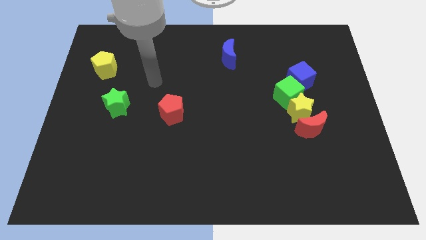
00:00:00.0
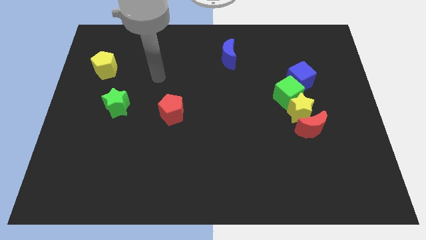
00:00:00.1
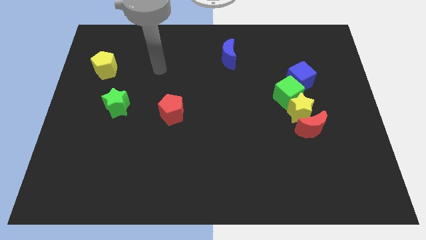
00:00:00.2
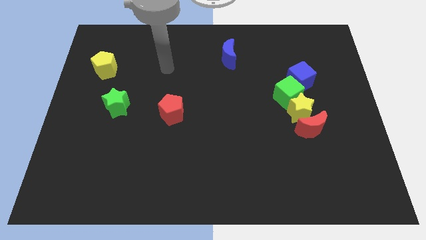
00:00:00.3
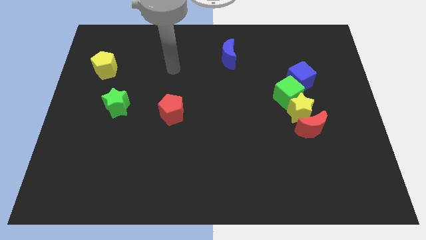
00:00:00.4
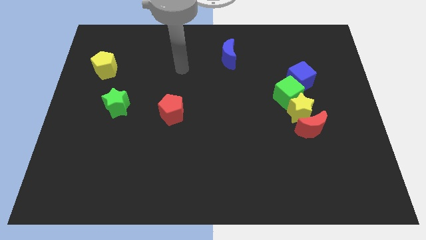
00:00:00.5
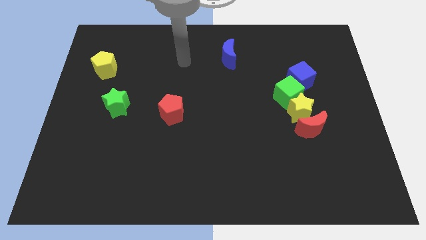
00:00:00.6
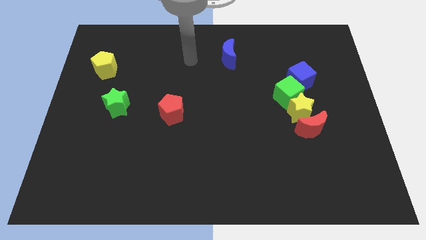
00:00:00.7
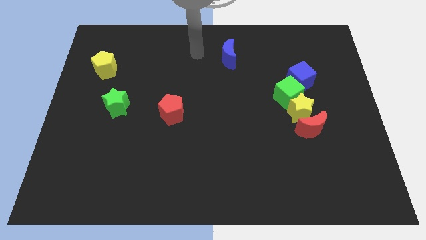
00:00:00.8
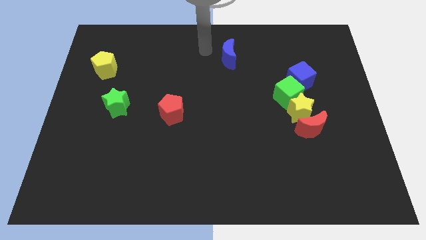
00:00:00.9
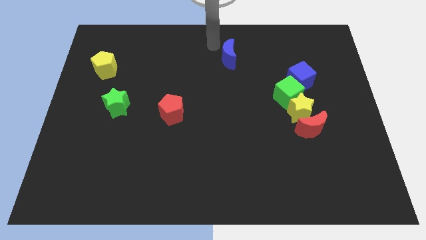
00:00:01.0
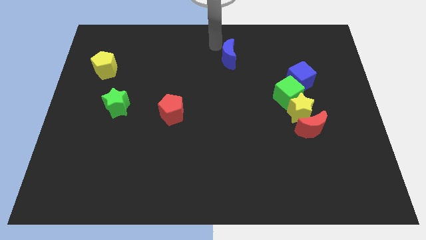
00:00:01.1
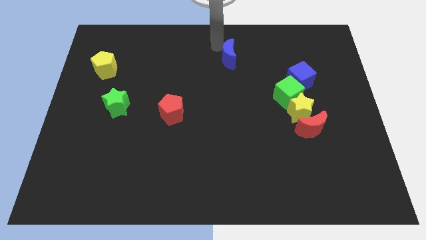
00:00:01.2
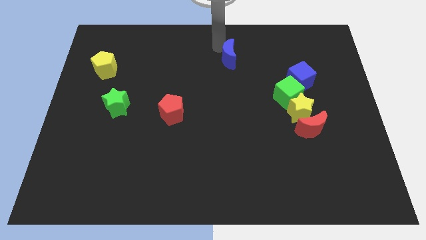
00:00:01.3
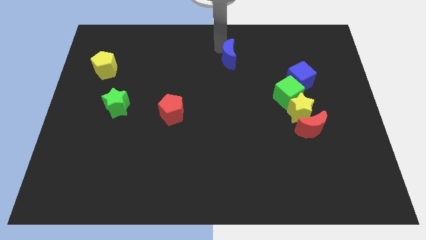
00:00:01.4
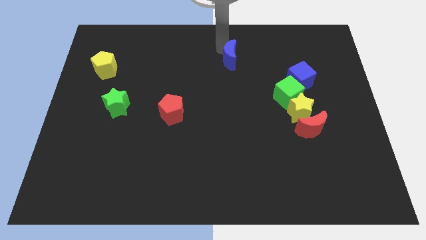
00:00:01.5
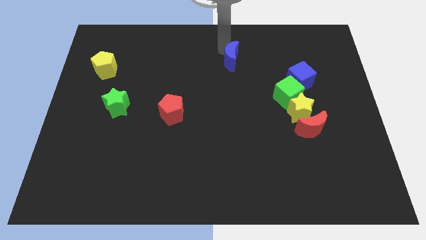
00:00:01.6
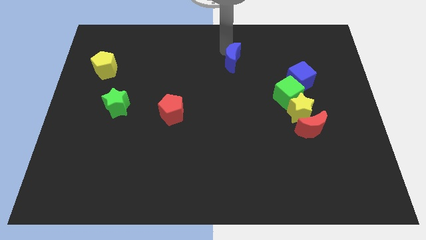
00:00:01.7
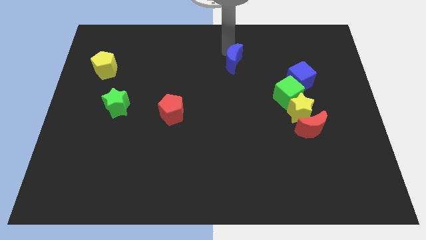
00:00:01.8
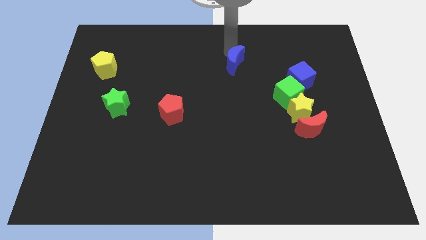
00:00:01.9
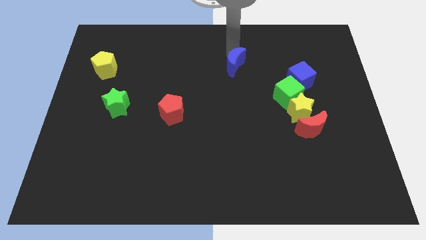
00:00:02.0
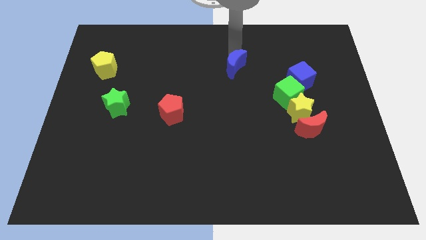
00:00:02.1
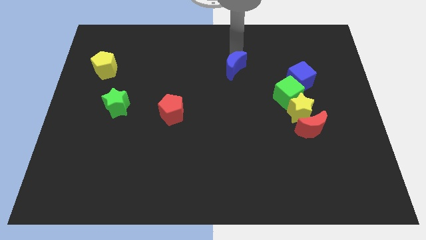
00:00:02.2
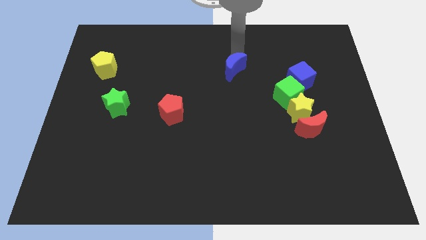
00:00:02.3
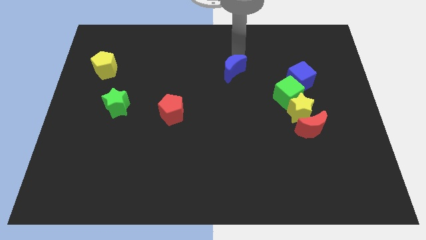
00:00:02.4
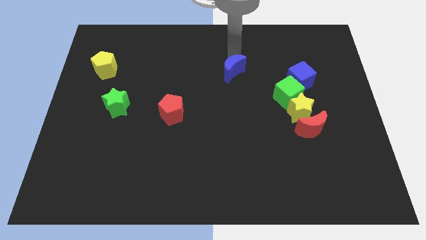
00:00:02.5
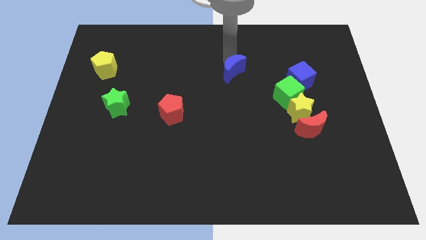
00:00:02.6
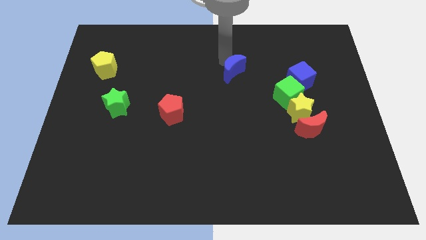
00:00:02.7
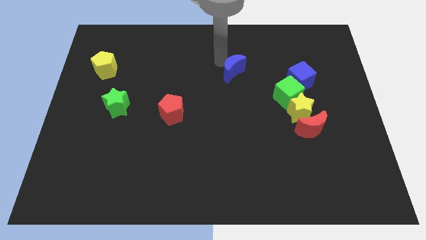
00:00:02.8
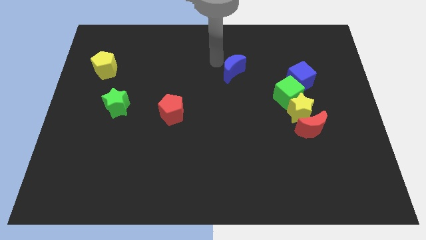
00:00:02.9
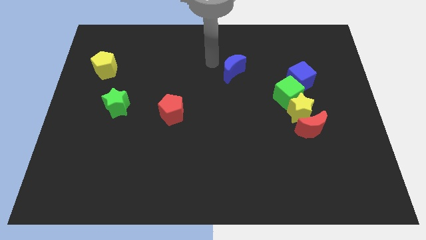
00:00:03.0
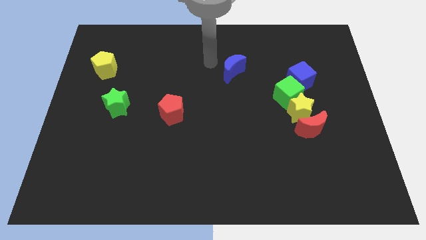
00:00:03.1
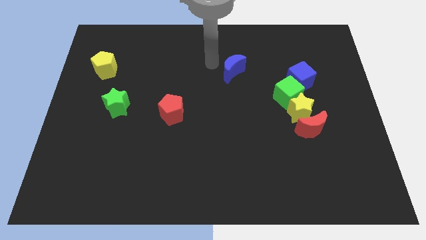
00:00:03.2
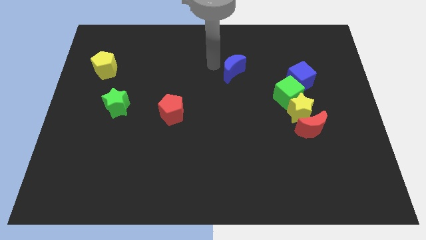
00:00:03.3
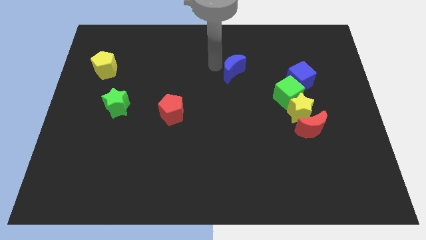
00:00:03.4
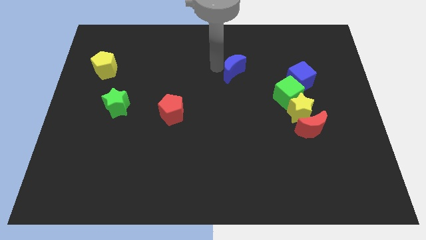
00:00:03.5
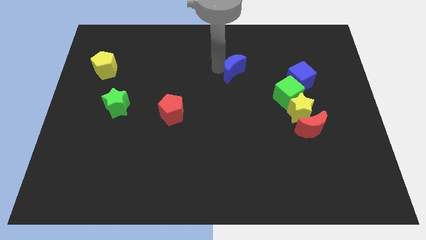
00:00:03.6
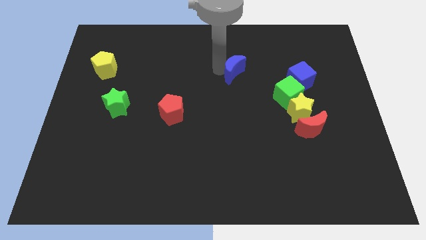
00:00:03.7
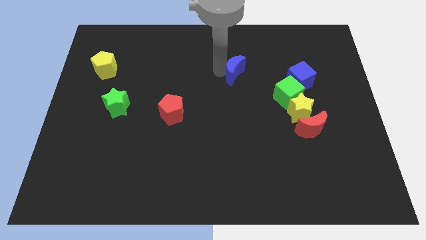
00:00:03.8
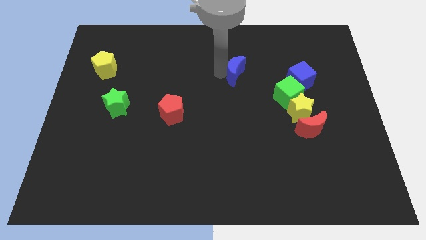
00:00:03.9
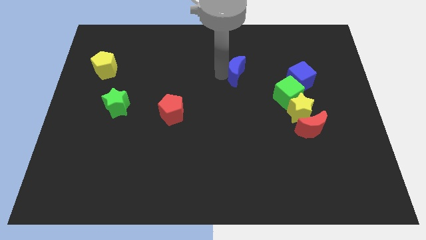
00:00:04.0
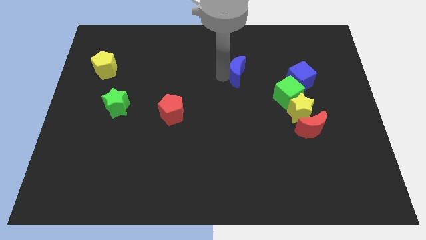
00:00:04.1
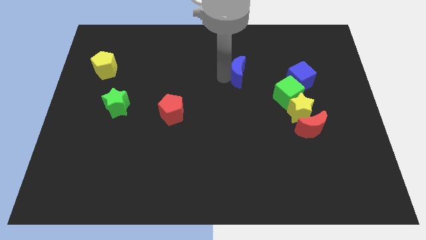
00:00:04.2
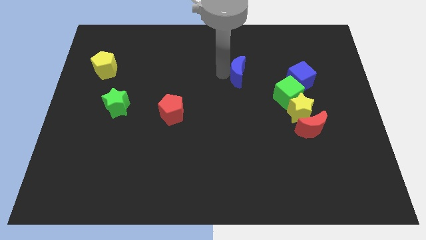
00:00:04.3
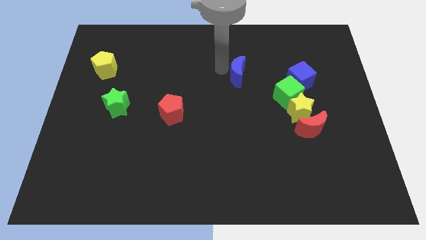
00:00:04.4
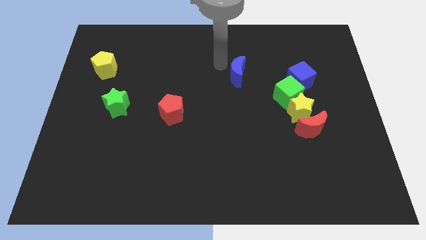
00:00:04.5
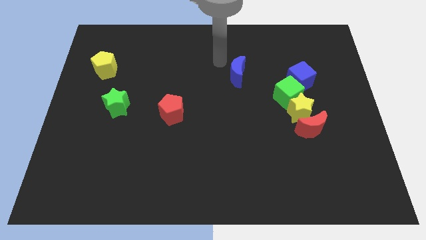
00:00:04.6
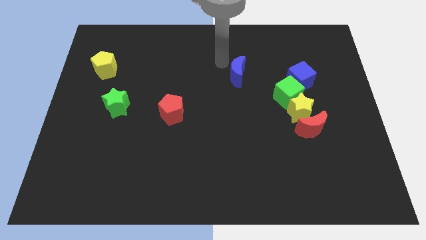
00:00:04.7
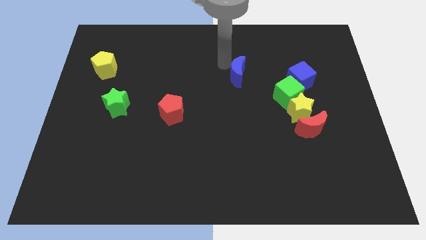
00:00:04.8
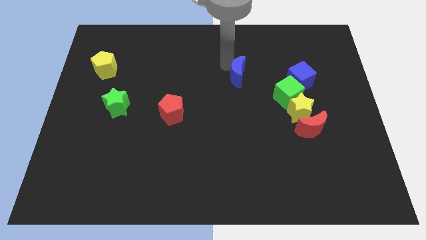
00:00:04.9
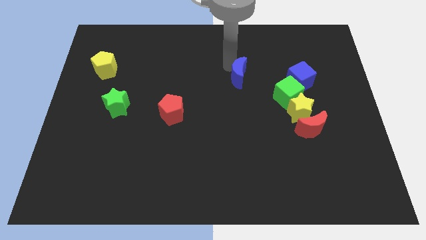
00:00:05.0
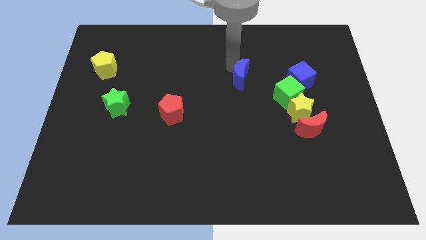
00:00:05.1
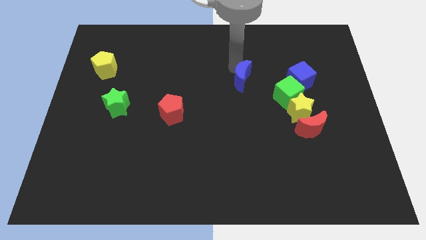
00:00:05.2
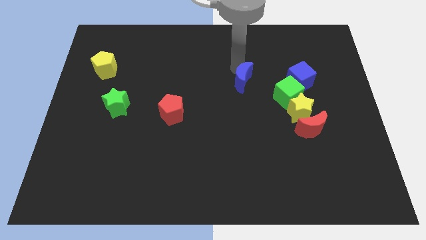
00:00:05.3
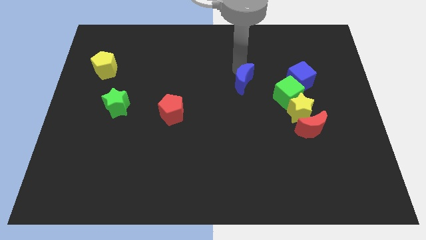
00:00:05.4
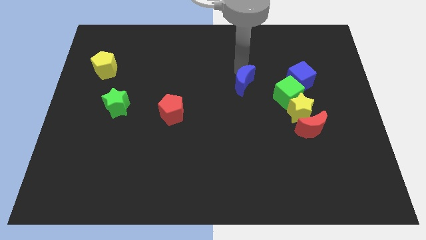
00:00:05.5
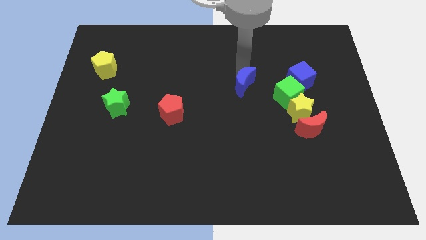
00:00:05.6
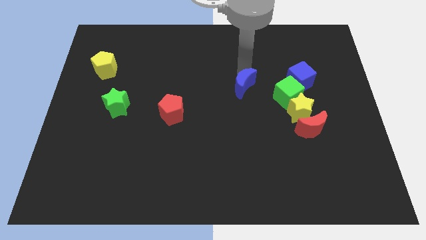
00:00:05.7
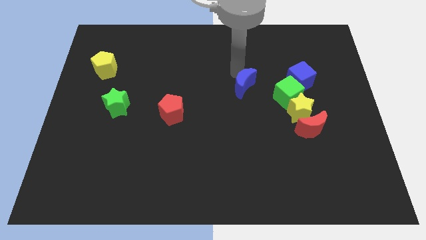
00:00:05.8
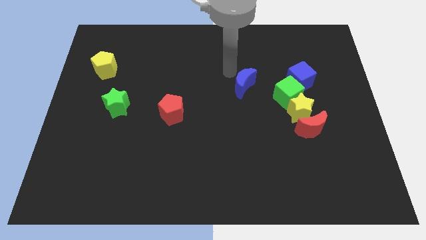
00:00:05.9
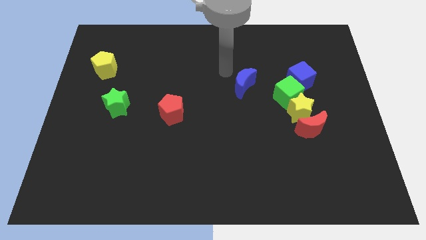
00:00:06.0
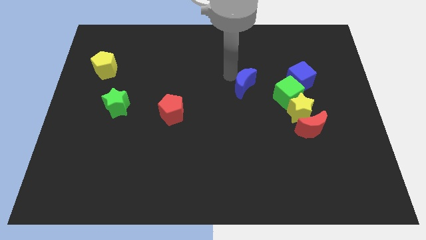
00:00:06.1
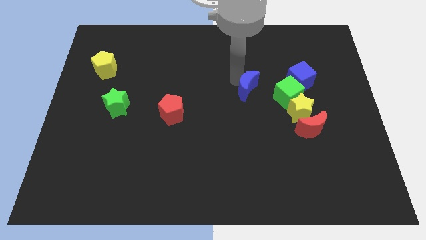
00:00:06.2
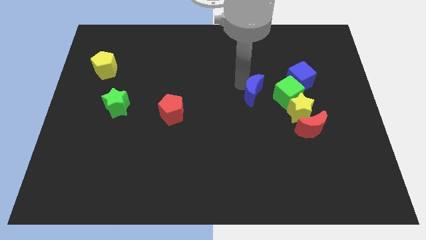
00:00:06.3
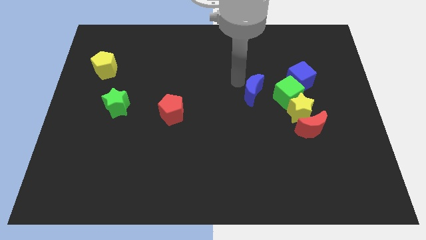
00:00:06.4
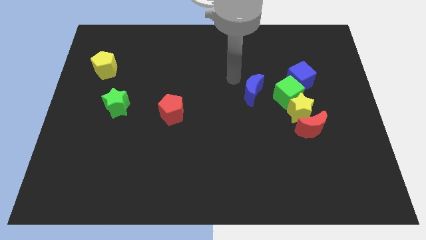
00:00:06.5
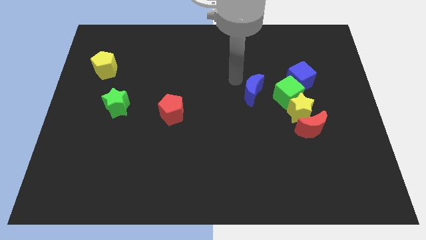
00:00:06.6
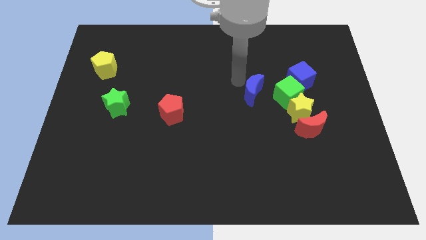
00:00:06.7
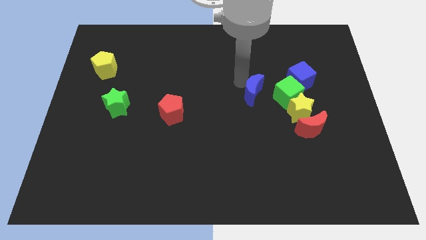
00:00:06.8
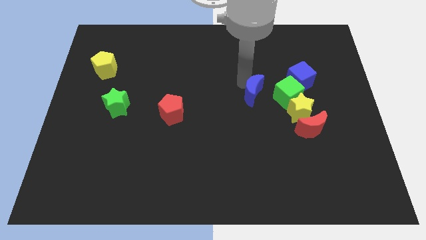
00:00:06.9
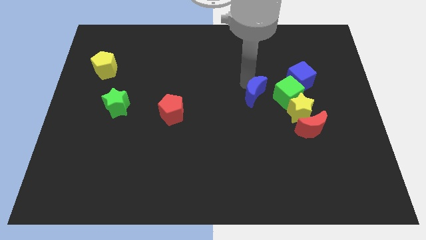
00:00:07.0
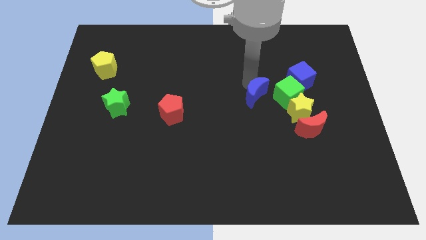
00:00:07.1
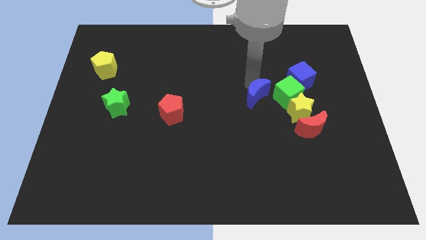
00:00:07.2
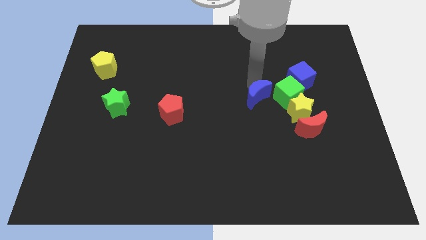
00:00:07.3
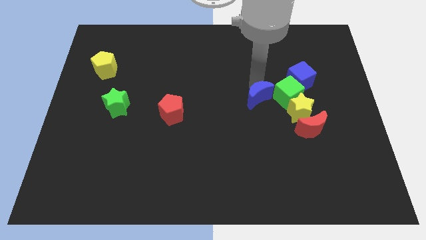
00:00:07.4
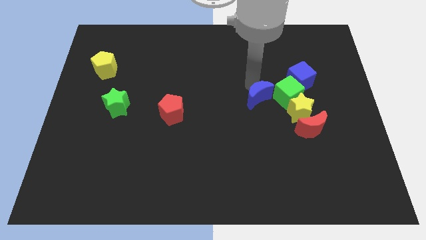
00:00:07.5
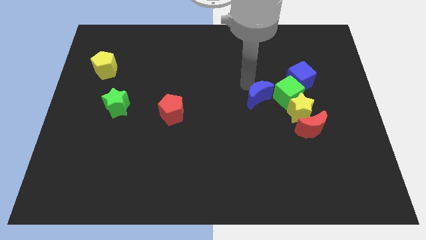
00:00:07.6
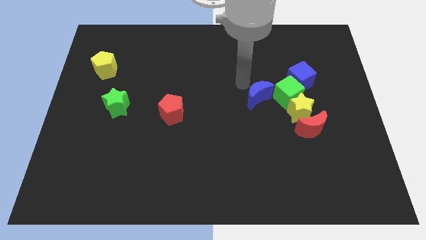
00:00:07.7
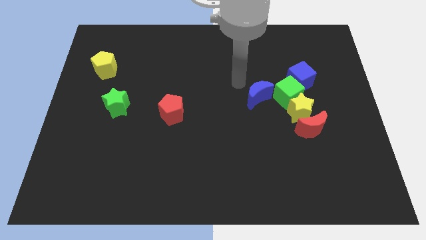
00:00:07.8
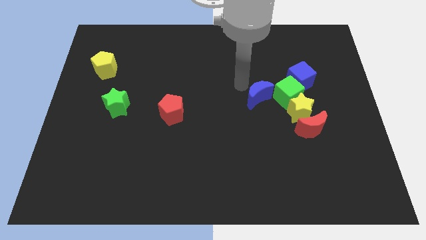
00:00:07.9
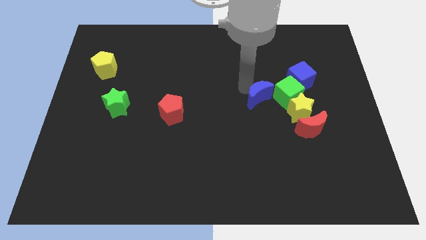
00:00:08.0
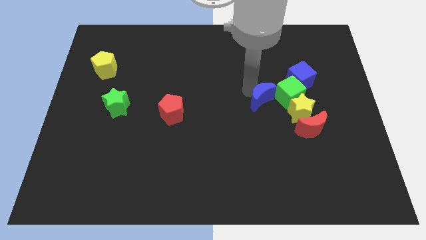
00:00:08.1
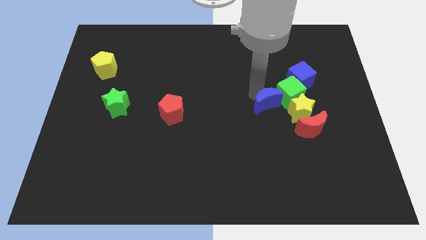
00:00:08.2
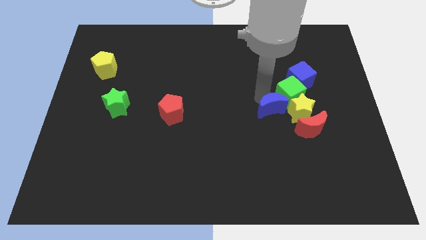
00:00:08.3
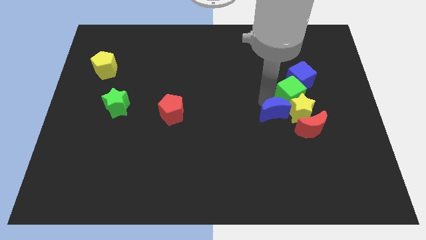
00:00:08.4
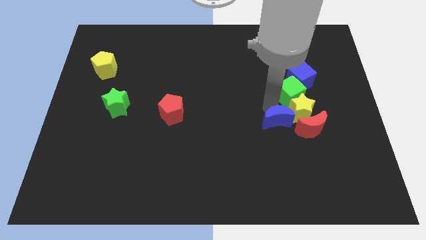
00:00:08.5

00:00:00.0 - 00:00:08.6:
move the blue moon down and right
